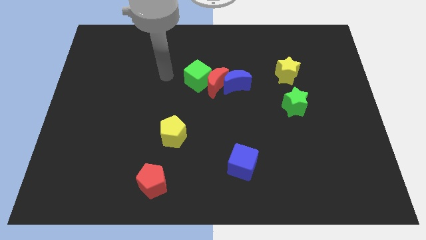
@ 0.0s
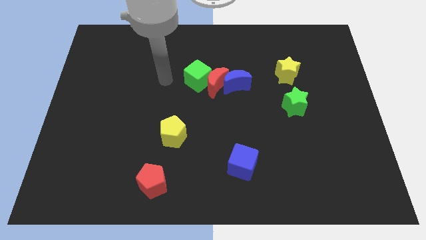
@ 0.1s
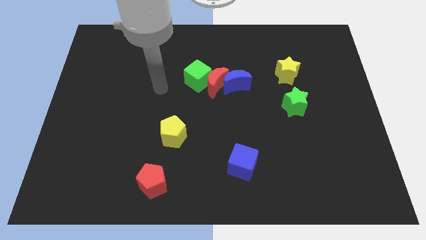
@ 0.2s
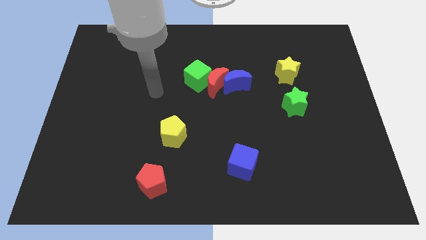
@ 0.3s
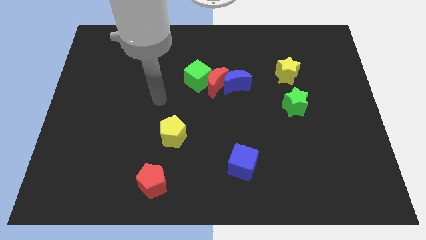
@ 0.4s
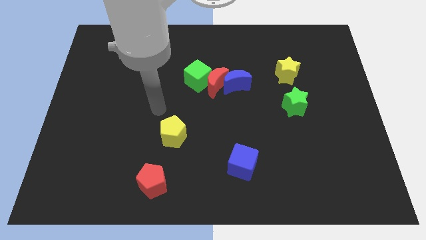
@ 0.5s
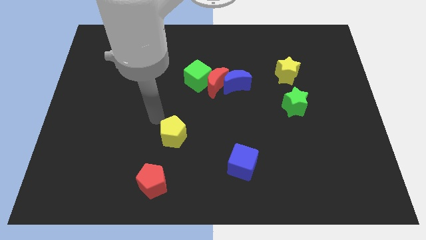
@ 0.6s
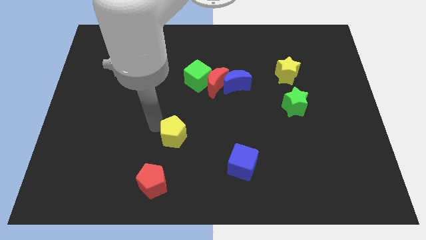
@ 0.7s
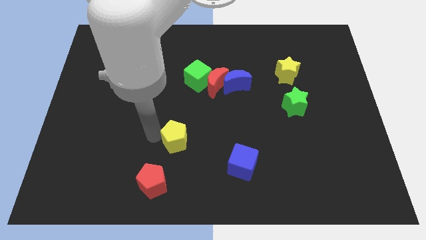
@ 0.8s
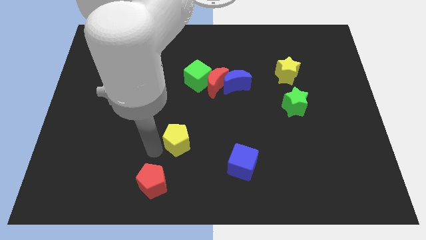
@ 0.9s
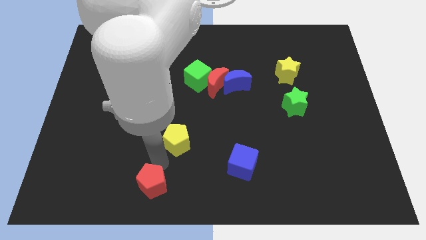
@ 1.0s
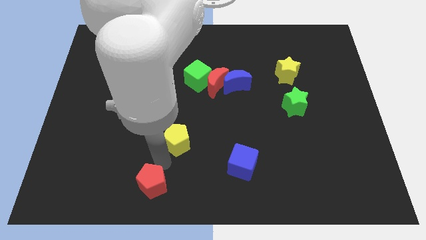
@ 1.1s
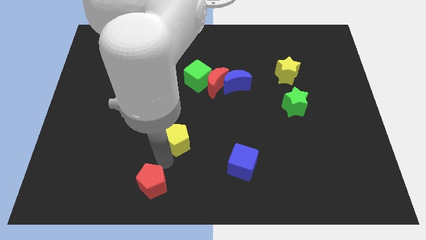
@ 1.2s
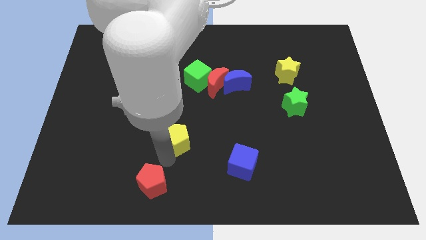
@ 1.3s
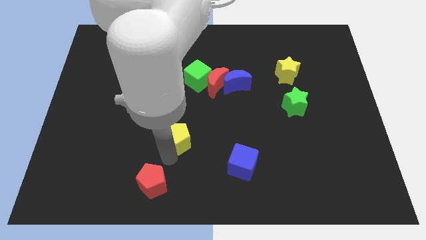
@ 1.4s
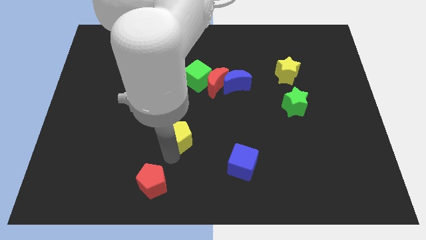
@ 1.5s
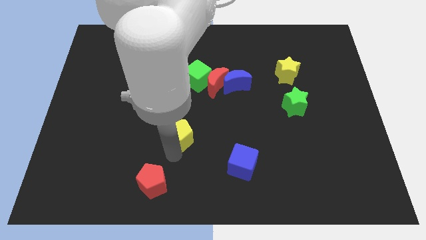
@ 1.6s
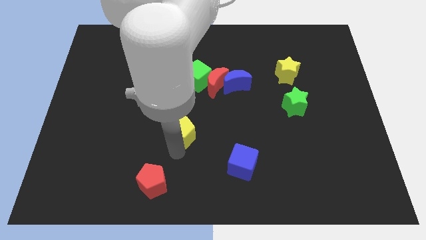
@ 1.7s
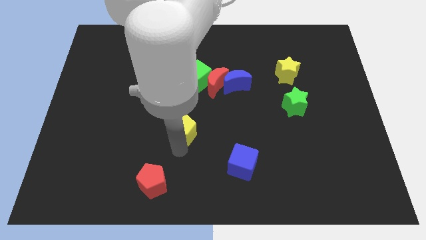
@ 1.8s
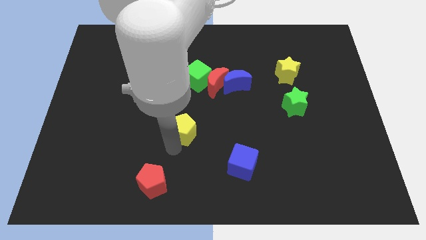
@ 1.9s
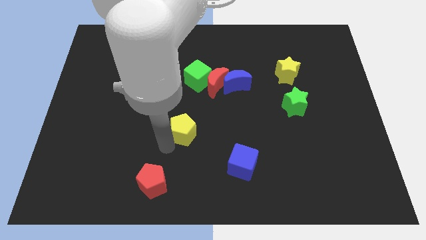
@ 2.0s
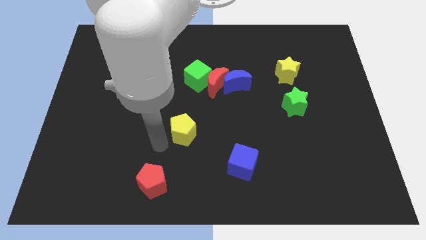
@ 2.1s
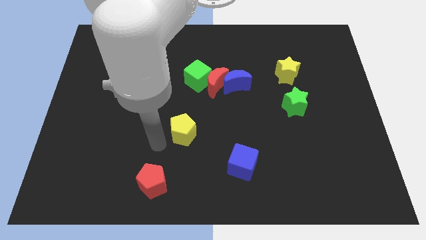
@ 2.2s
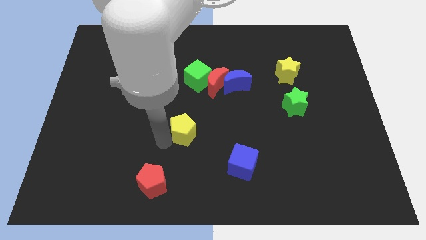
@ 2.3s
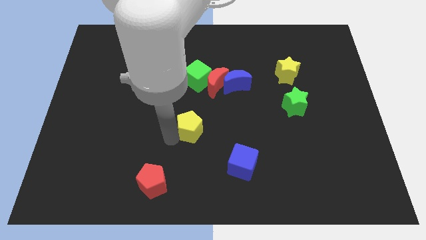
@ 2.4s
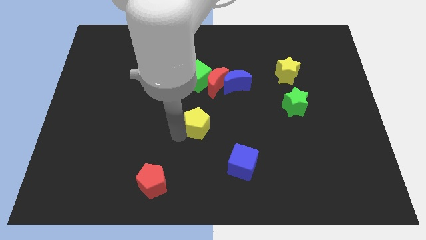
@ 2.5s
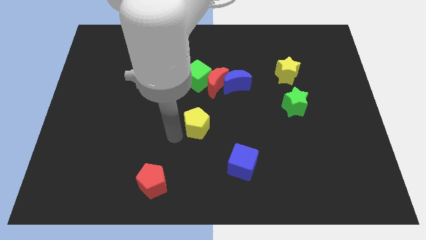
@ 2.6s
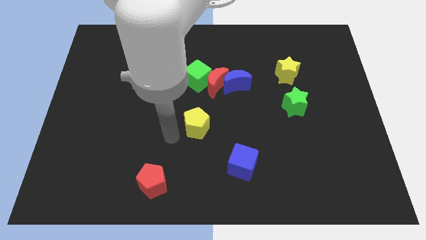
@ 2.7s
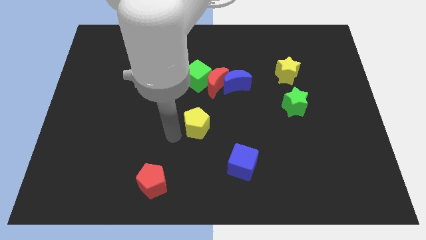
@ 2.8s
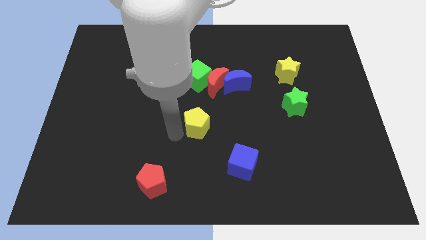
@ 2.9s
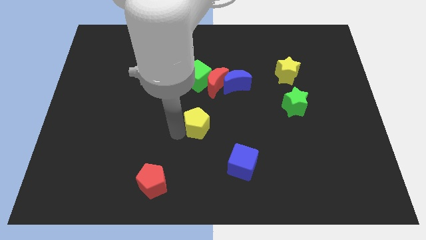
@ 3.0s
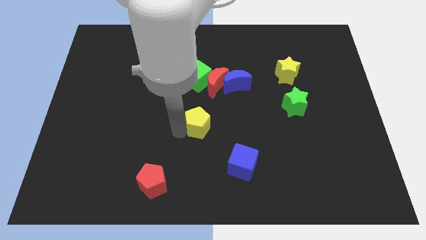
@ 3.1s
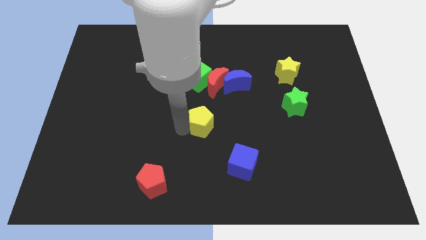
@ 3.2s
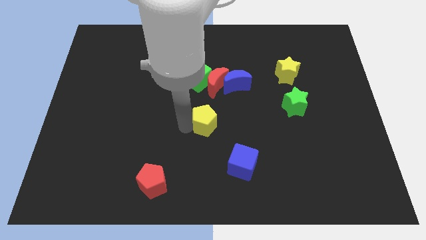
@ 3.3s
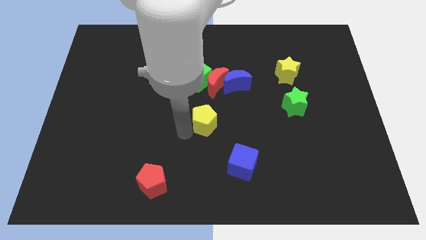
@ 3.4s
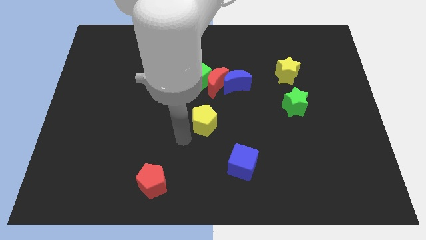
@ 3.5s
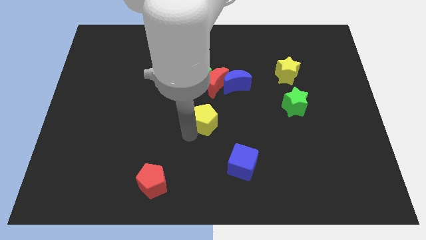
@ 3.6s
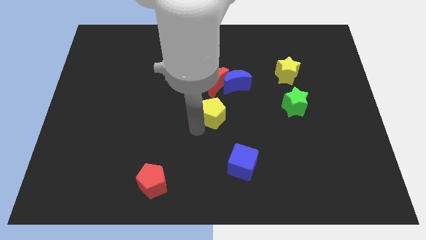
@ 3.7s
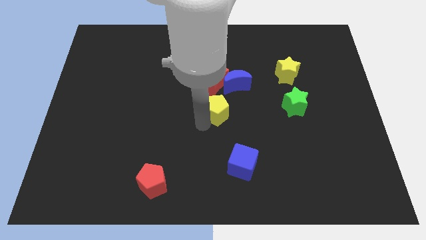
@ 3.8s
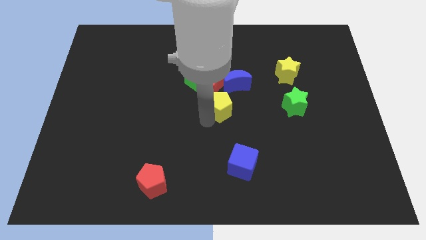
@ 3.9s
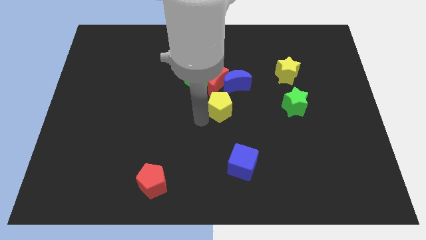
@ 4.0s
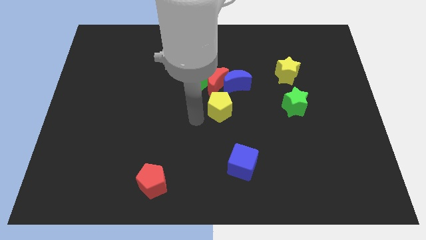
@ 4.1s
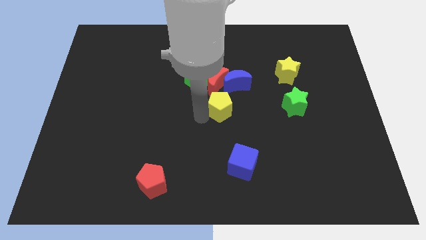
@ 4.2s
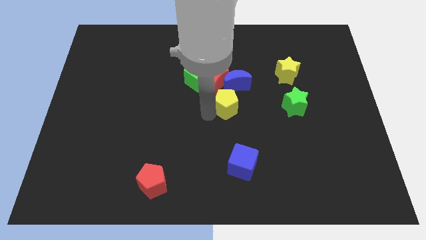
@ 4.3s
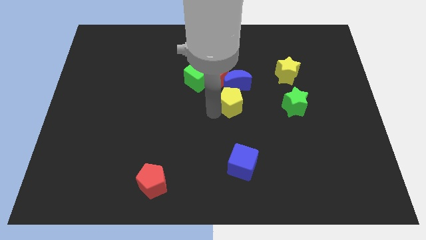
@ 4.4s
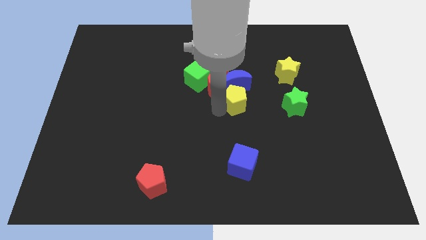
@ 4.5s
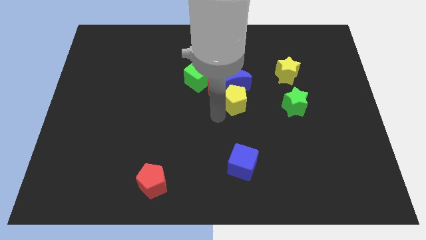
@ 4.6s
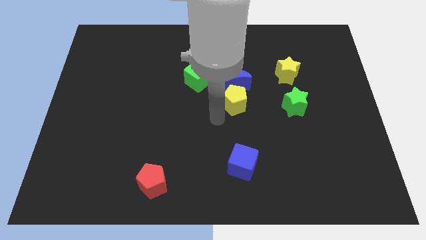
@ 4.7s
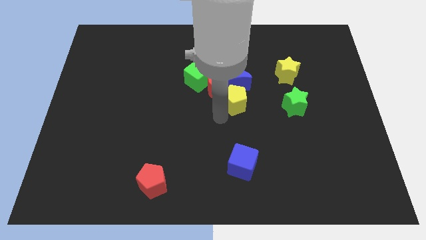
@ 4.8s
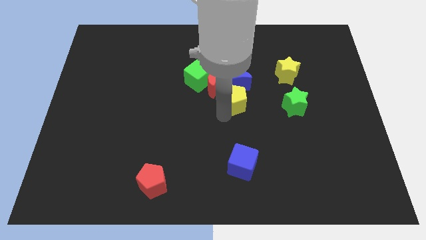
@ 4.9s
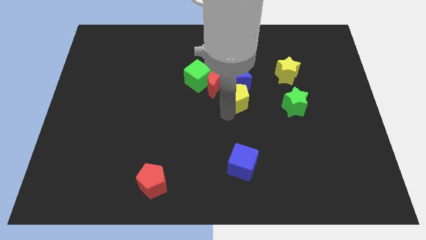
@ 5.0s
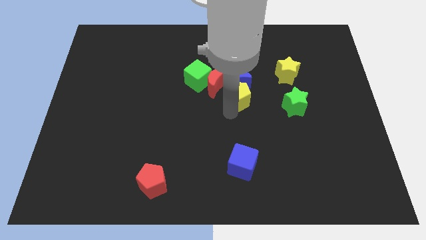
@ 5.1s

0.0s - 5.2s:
push the yellow pentagon just right of the red moon

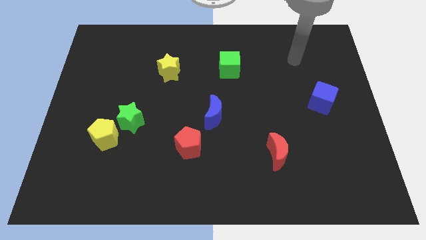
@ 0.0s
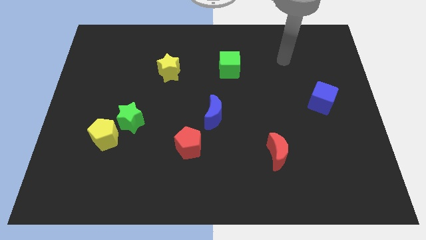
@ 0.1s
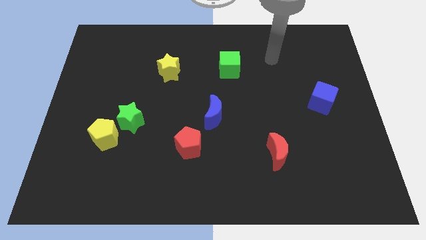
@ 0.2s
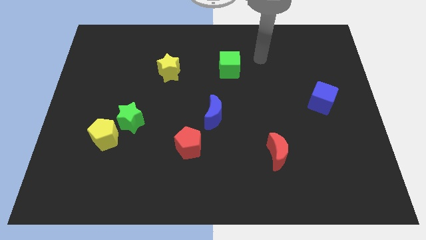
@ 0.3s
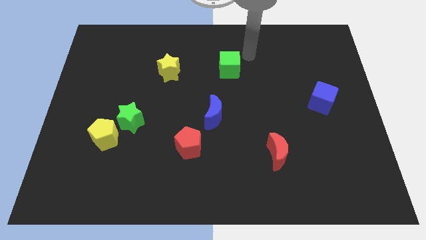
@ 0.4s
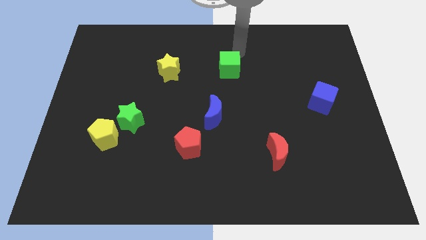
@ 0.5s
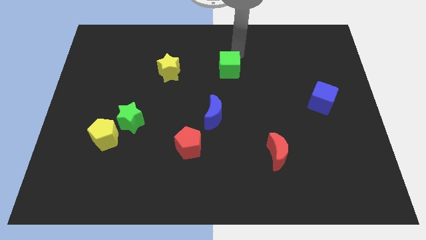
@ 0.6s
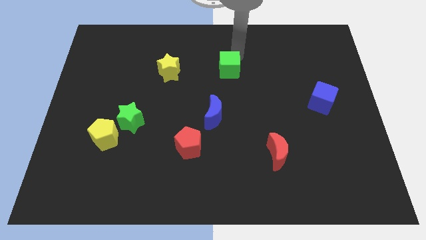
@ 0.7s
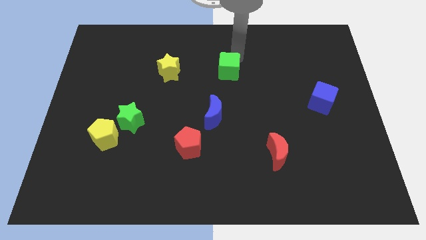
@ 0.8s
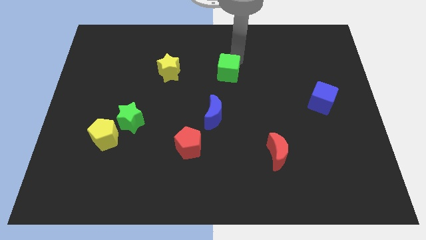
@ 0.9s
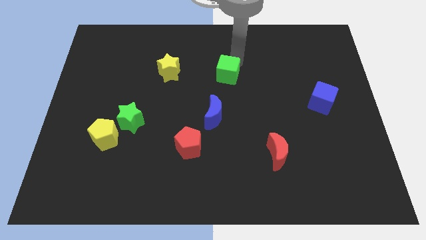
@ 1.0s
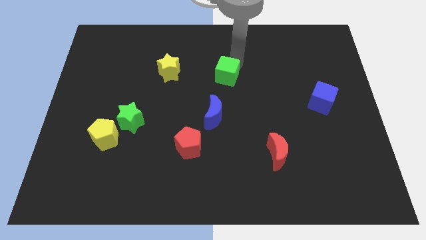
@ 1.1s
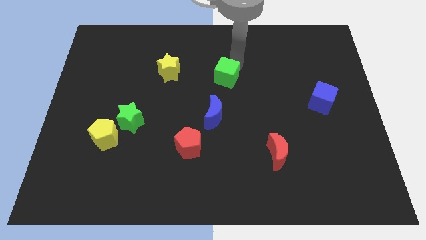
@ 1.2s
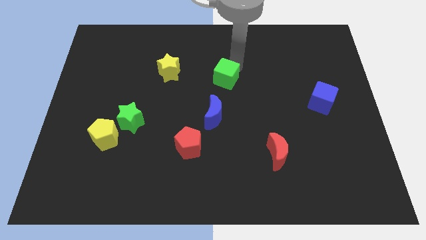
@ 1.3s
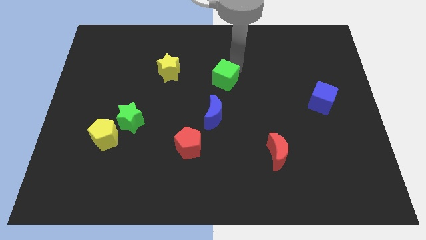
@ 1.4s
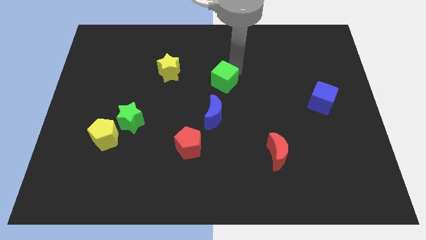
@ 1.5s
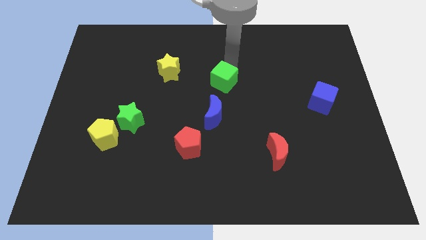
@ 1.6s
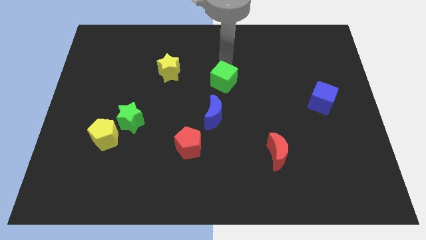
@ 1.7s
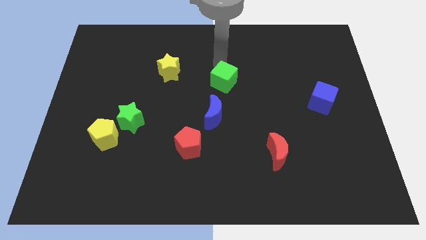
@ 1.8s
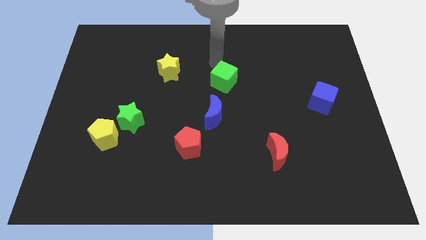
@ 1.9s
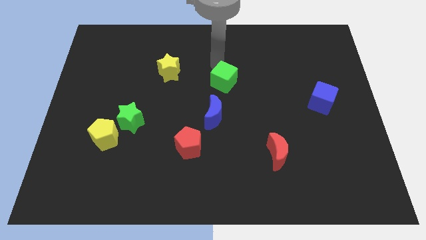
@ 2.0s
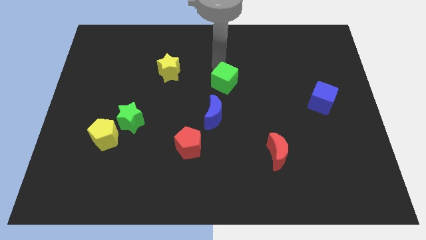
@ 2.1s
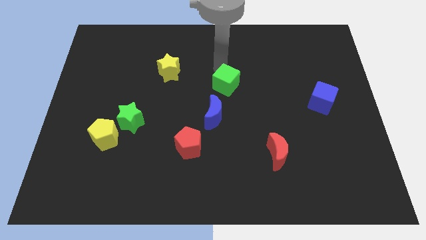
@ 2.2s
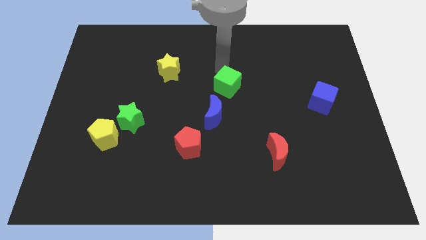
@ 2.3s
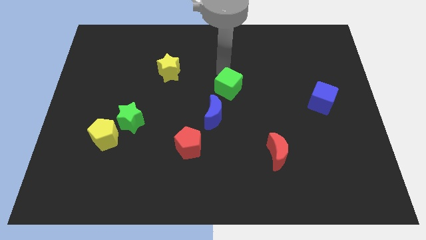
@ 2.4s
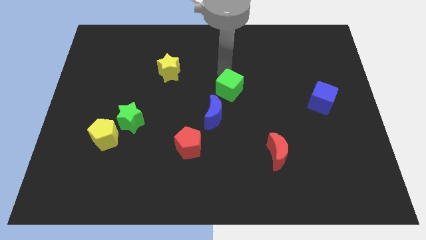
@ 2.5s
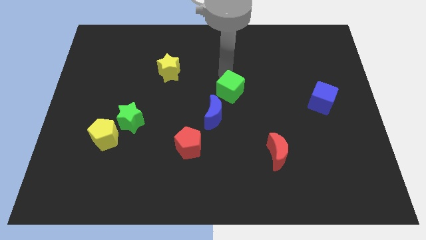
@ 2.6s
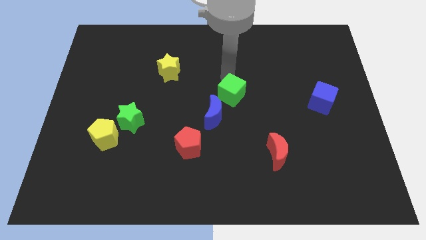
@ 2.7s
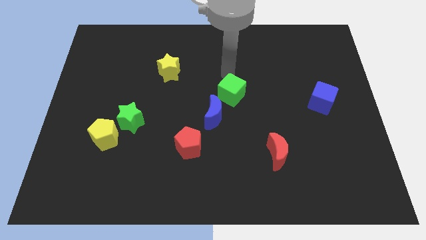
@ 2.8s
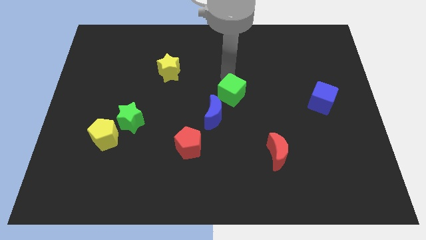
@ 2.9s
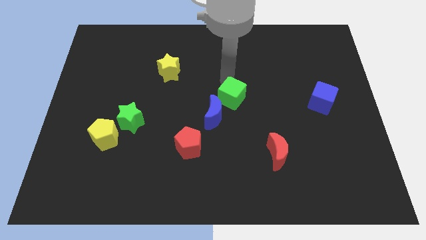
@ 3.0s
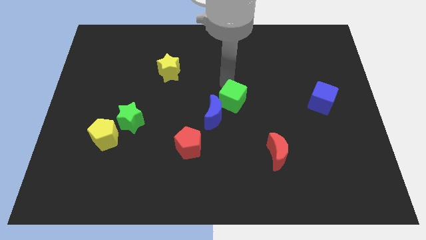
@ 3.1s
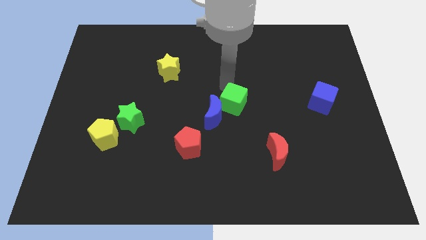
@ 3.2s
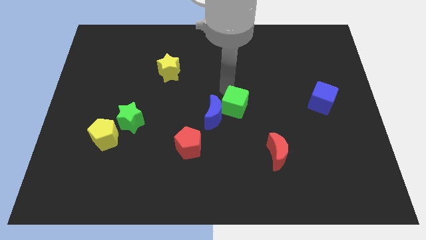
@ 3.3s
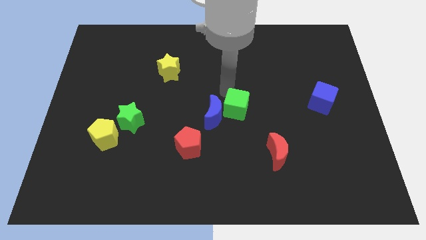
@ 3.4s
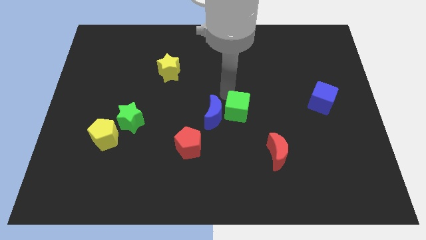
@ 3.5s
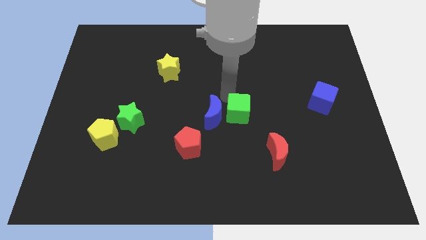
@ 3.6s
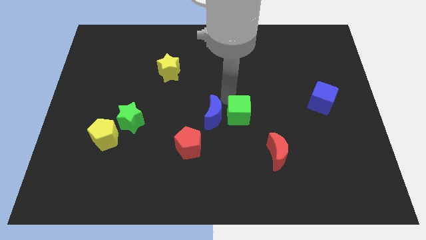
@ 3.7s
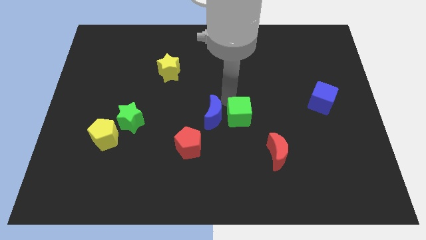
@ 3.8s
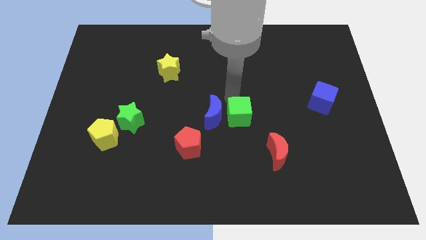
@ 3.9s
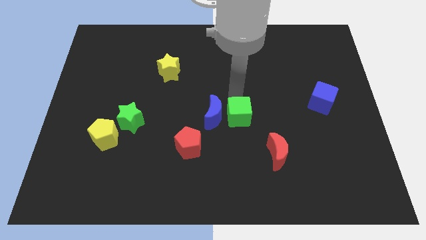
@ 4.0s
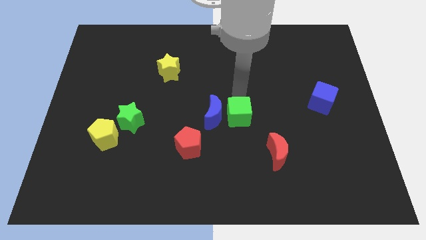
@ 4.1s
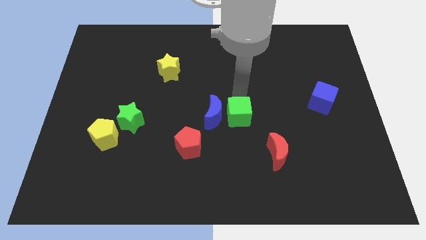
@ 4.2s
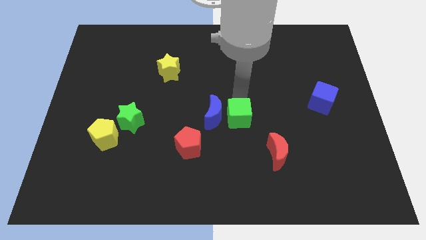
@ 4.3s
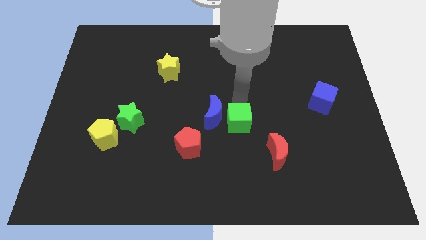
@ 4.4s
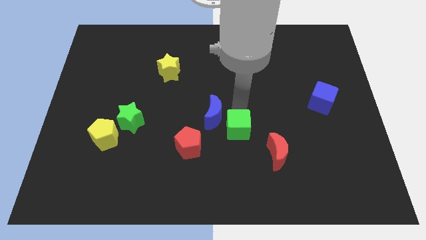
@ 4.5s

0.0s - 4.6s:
slide the green cube right of the red pentagon
